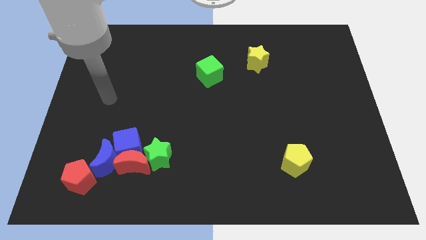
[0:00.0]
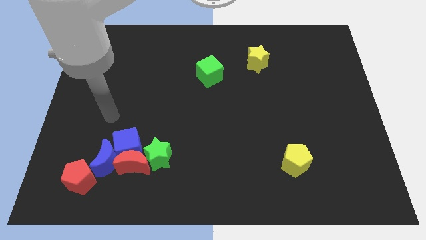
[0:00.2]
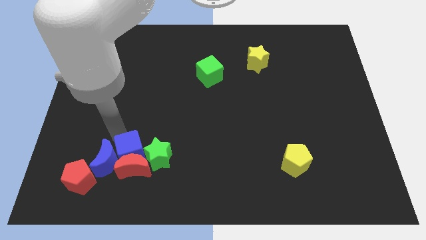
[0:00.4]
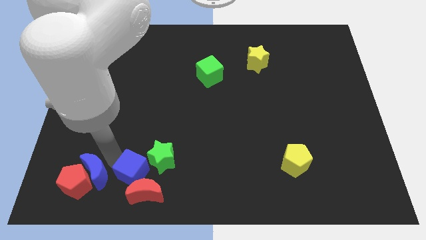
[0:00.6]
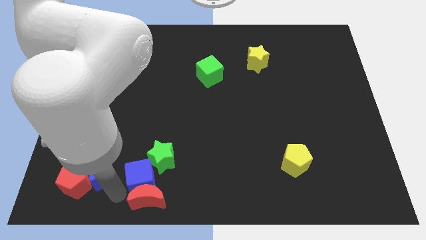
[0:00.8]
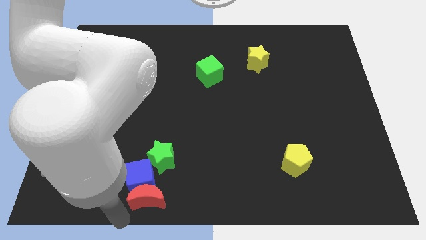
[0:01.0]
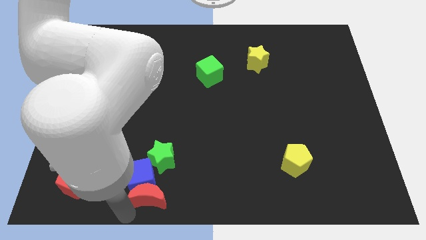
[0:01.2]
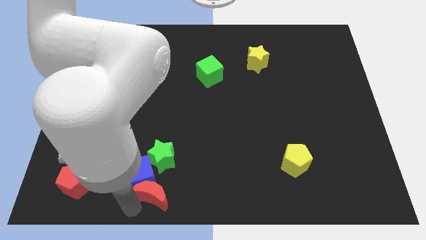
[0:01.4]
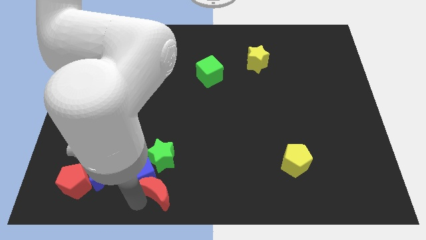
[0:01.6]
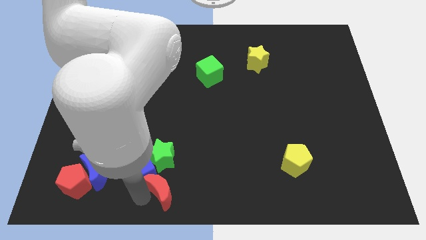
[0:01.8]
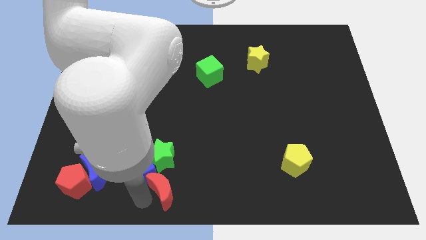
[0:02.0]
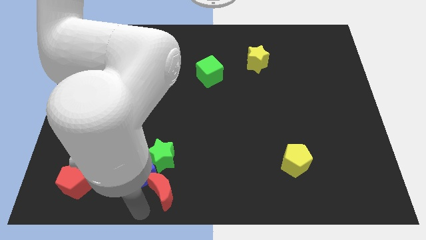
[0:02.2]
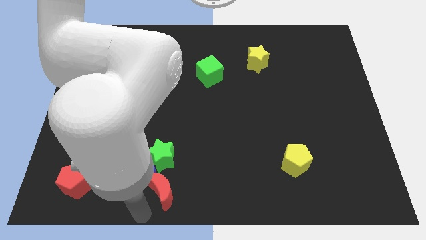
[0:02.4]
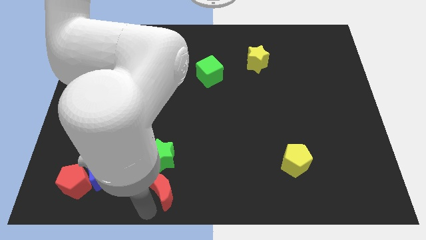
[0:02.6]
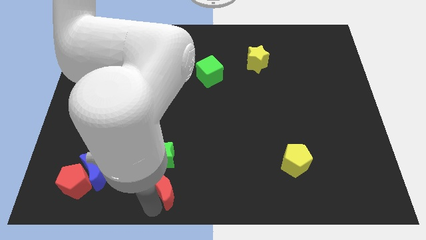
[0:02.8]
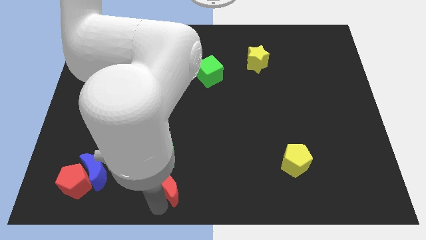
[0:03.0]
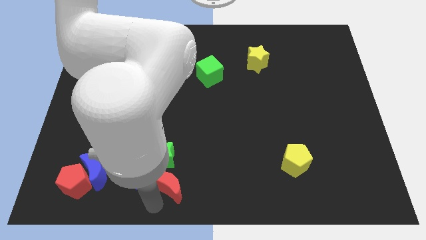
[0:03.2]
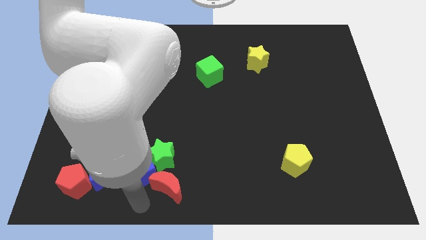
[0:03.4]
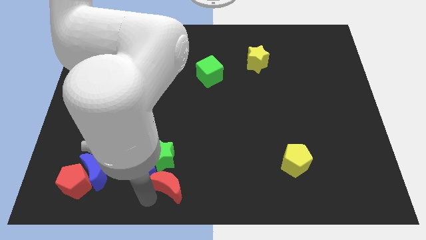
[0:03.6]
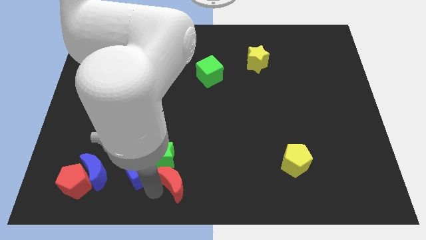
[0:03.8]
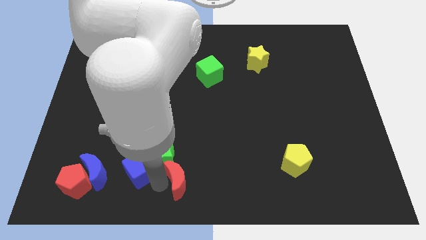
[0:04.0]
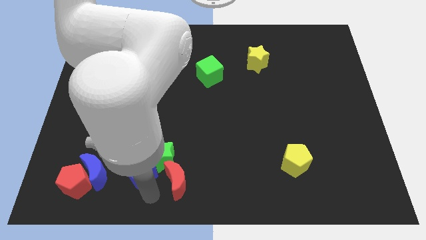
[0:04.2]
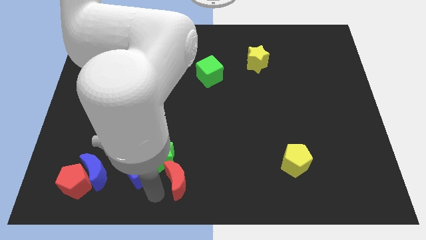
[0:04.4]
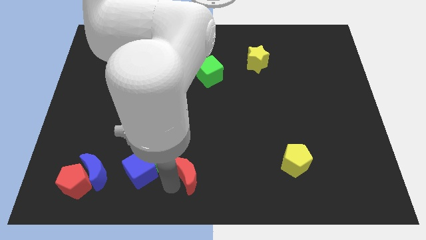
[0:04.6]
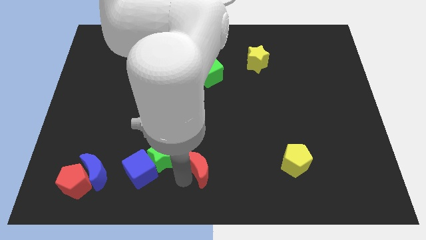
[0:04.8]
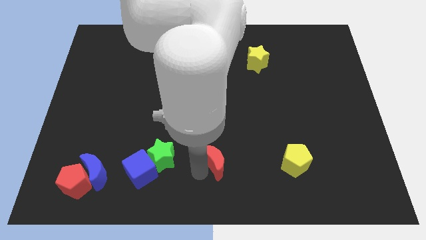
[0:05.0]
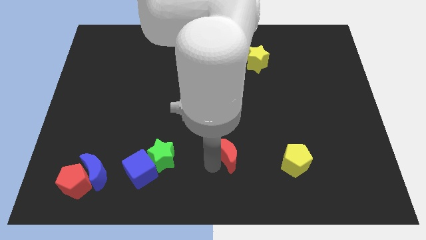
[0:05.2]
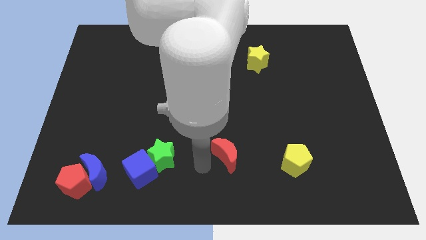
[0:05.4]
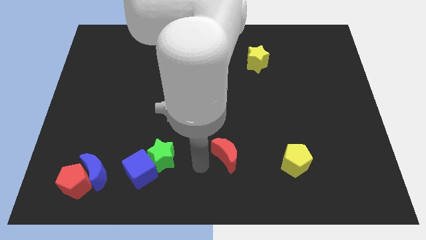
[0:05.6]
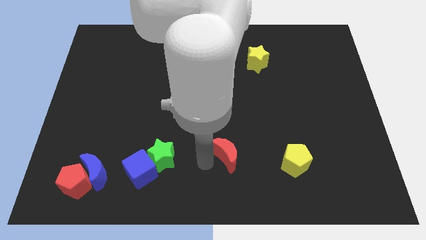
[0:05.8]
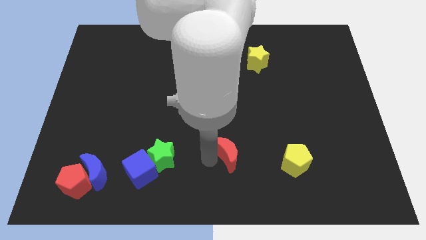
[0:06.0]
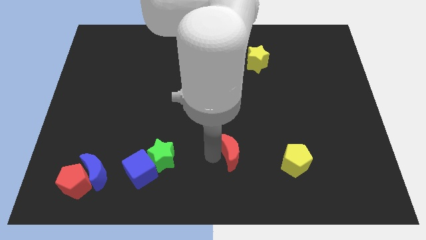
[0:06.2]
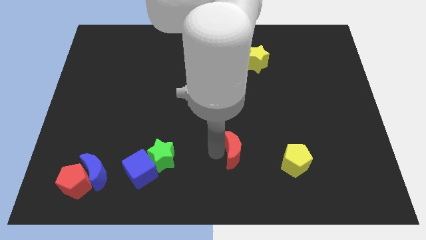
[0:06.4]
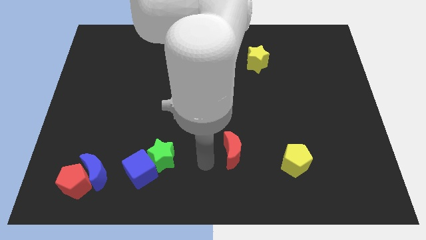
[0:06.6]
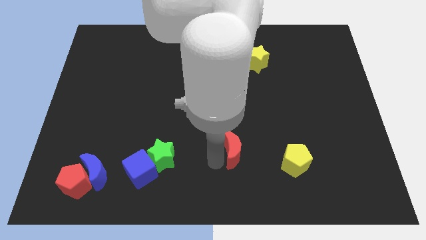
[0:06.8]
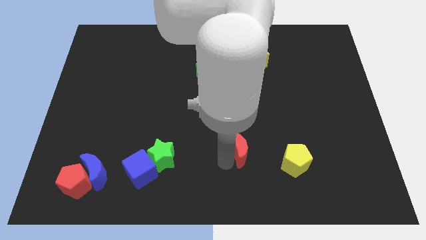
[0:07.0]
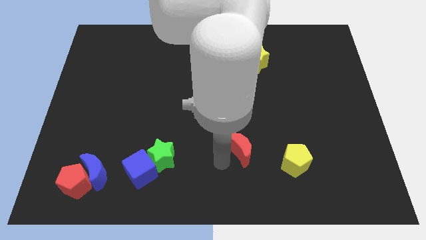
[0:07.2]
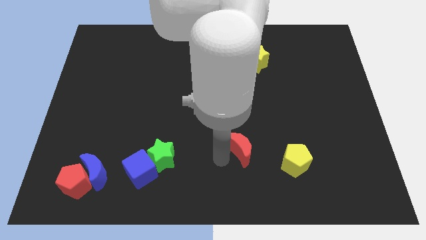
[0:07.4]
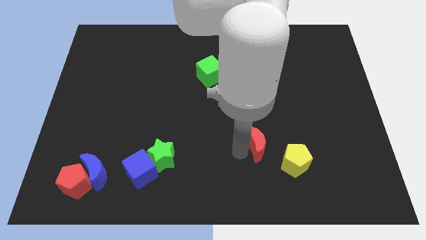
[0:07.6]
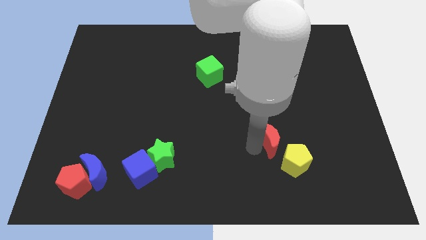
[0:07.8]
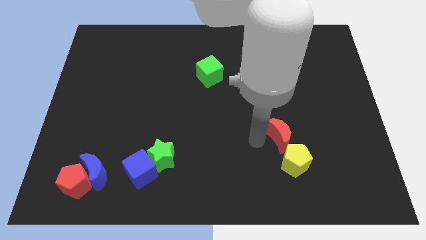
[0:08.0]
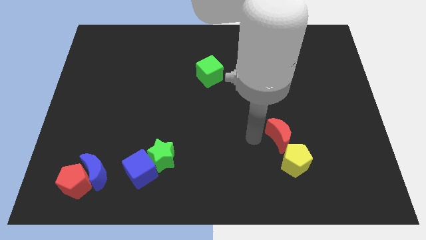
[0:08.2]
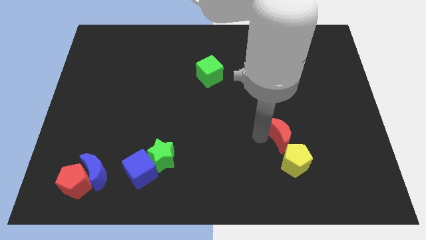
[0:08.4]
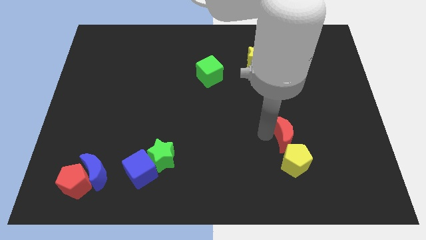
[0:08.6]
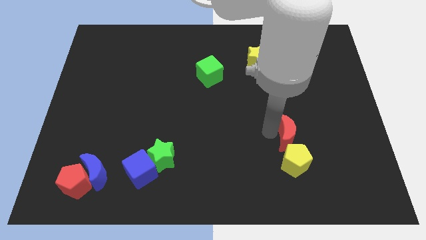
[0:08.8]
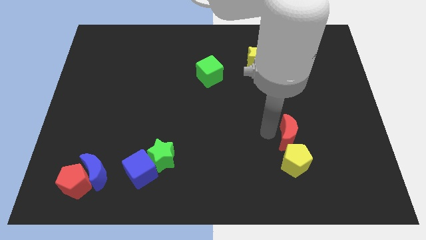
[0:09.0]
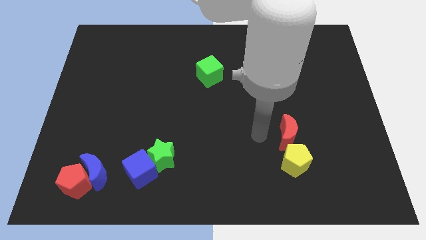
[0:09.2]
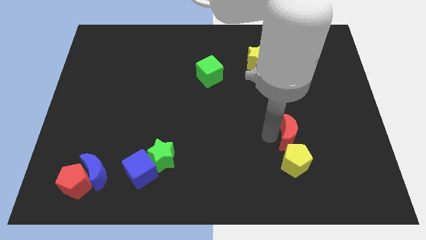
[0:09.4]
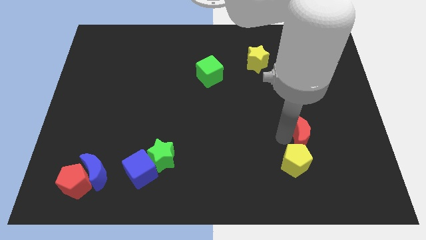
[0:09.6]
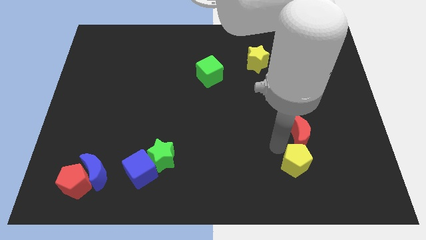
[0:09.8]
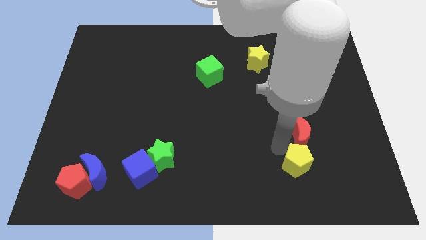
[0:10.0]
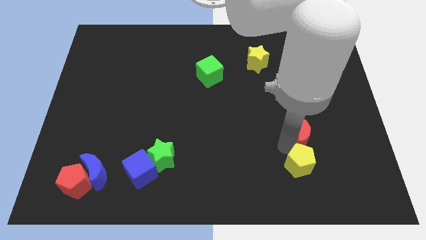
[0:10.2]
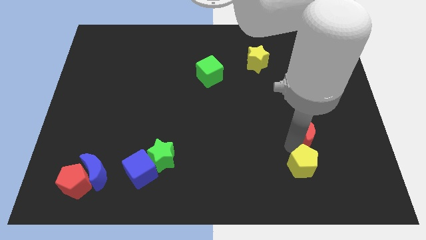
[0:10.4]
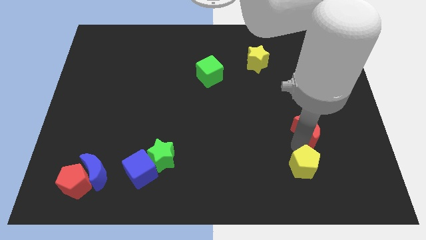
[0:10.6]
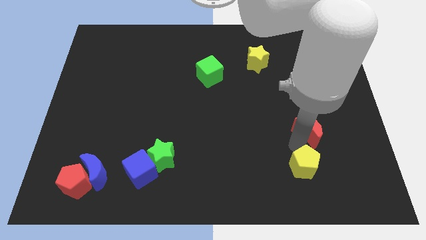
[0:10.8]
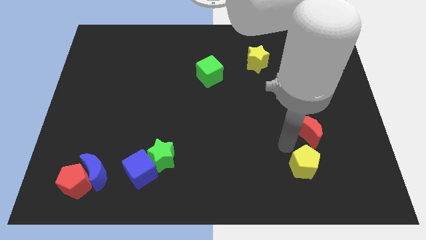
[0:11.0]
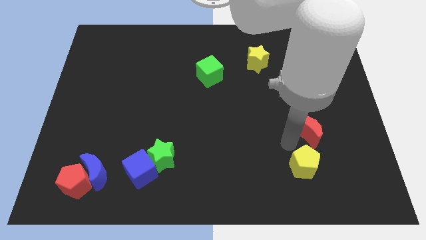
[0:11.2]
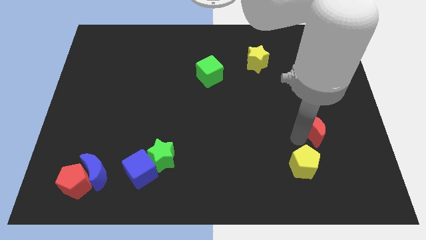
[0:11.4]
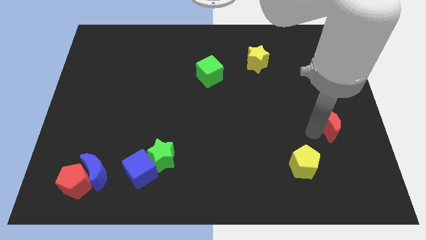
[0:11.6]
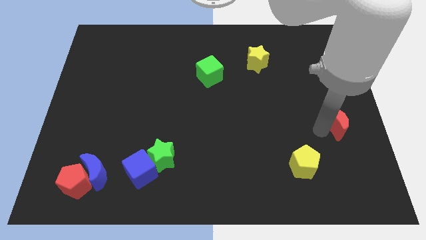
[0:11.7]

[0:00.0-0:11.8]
slide the red moon to the right side of the board

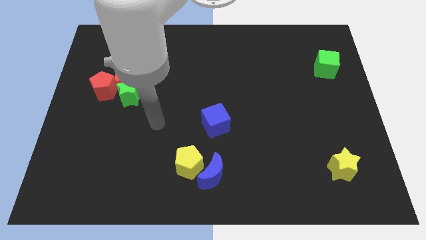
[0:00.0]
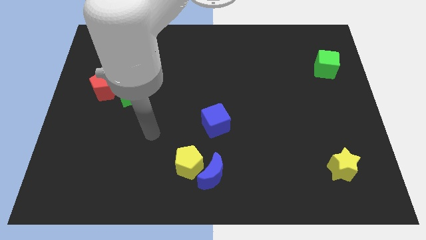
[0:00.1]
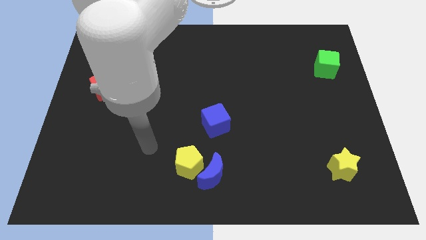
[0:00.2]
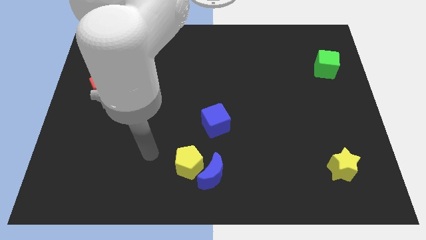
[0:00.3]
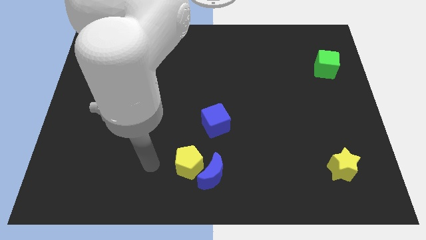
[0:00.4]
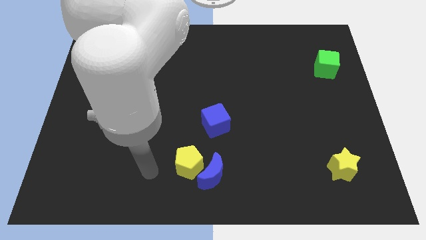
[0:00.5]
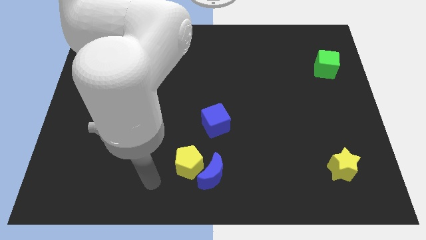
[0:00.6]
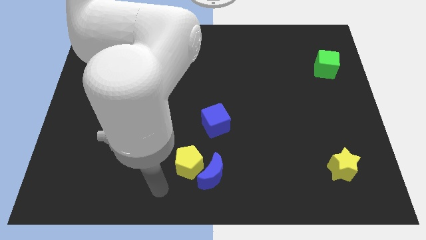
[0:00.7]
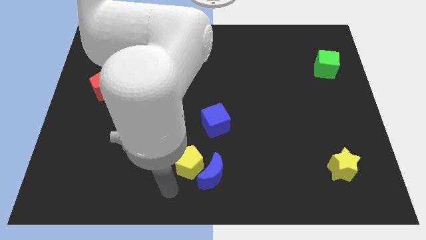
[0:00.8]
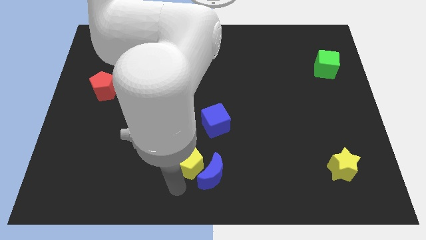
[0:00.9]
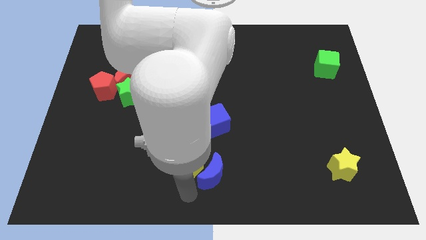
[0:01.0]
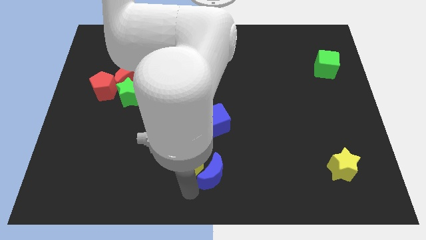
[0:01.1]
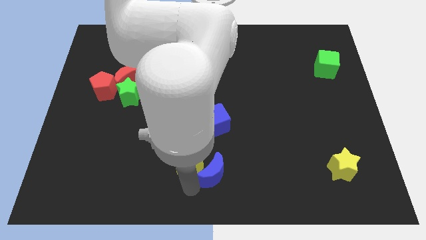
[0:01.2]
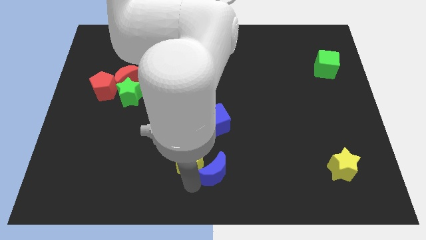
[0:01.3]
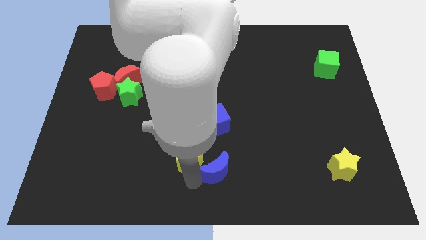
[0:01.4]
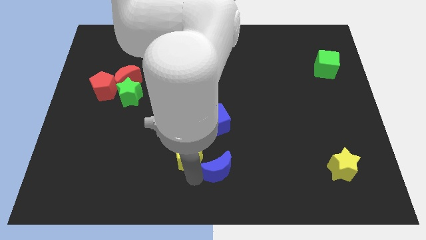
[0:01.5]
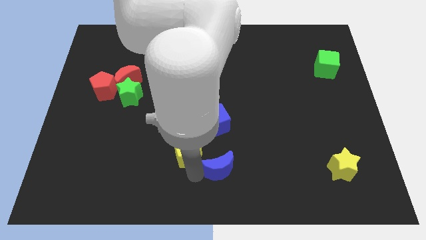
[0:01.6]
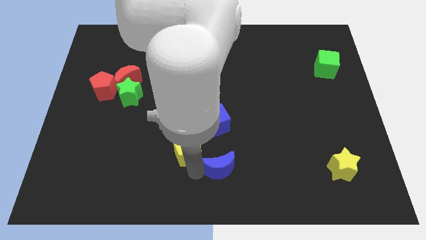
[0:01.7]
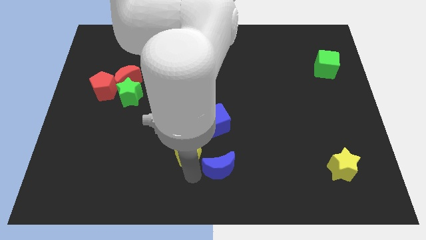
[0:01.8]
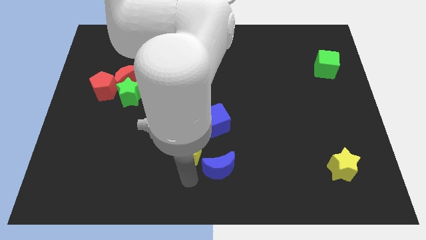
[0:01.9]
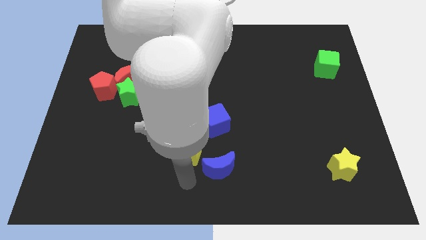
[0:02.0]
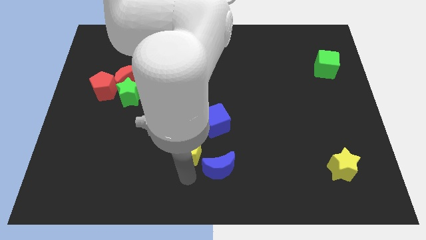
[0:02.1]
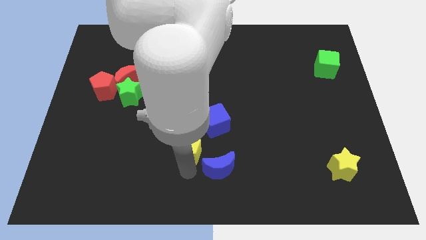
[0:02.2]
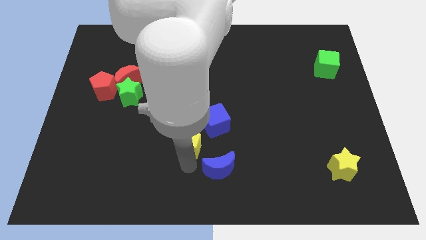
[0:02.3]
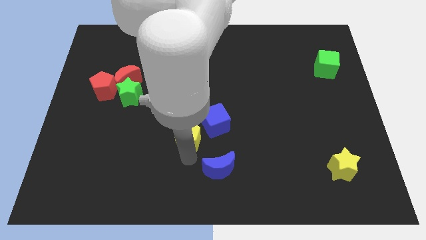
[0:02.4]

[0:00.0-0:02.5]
slide the yellow pentagon to the middle of the board
